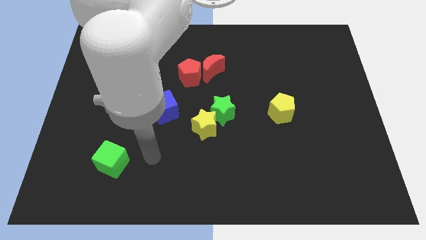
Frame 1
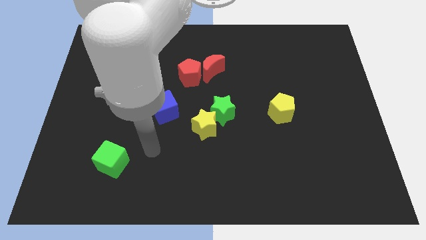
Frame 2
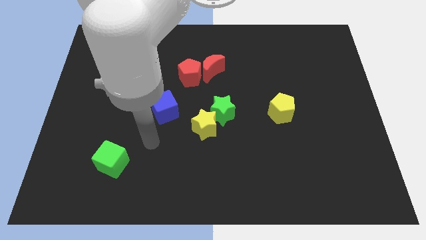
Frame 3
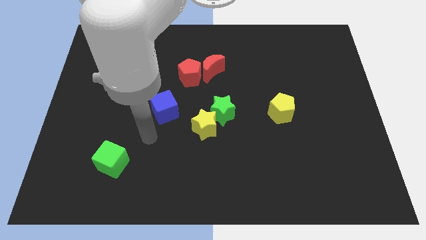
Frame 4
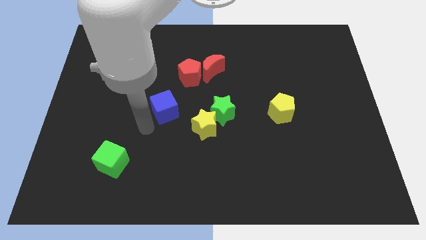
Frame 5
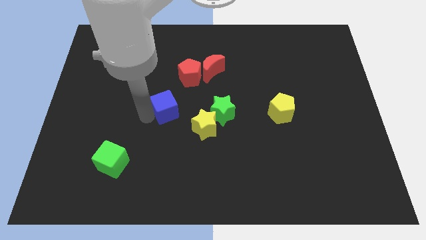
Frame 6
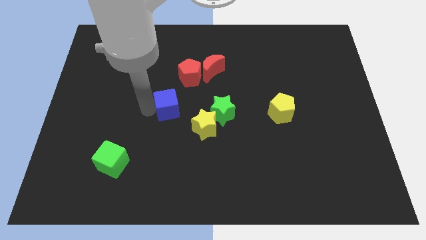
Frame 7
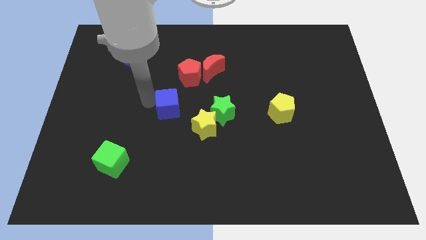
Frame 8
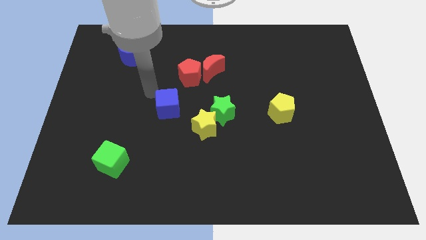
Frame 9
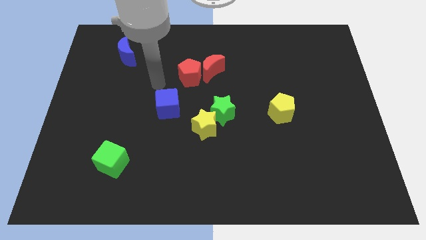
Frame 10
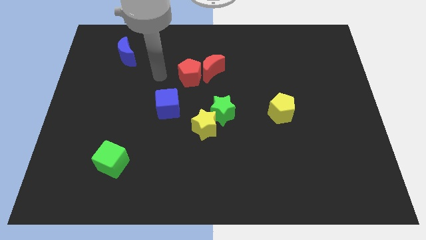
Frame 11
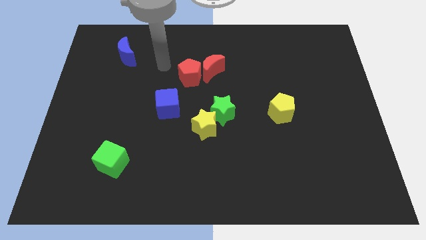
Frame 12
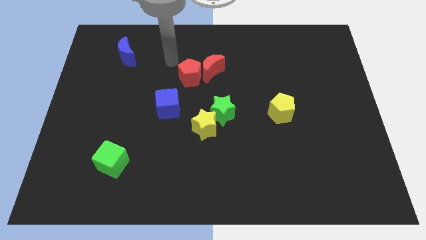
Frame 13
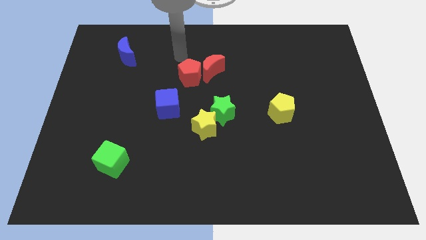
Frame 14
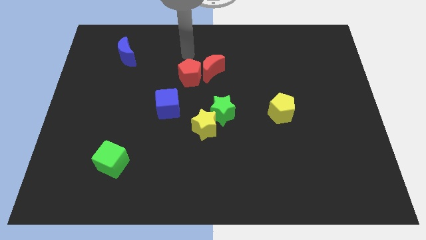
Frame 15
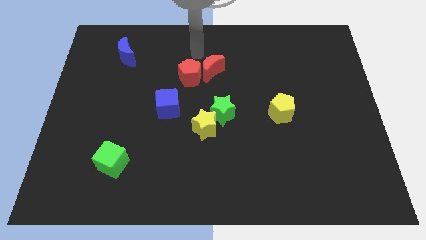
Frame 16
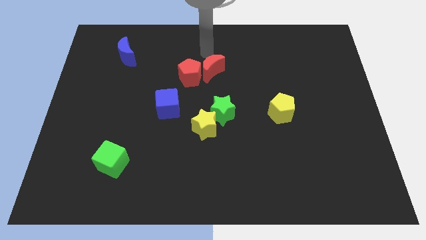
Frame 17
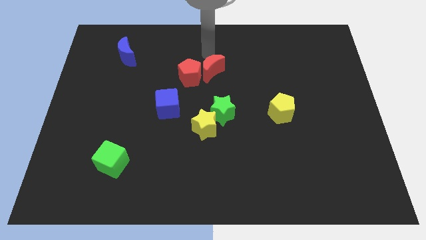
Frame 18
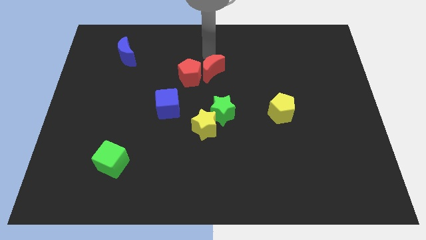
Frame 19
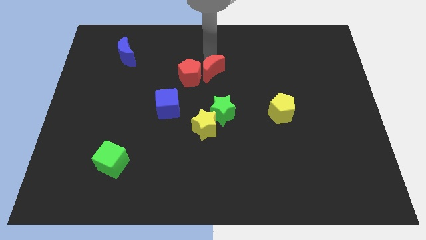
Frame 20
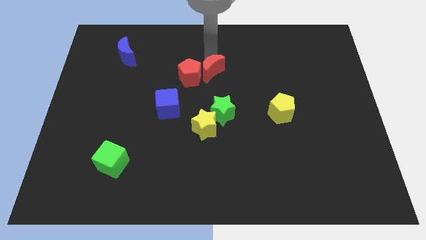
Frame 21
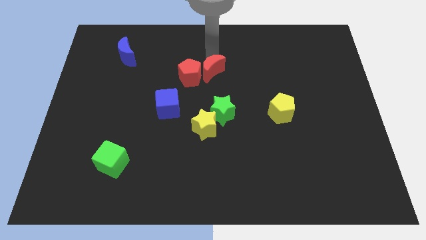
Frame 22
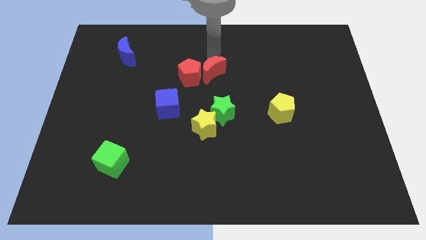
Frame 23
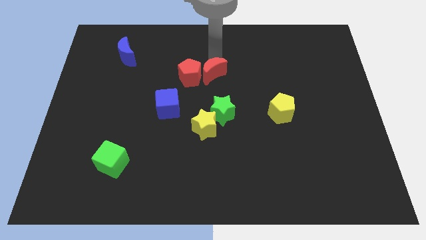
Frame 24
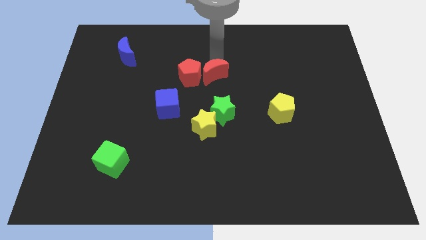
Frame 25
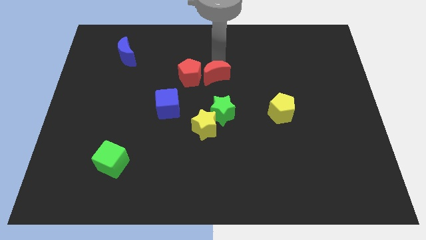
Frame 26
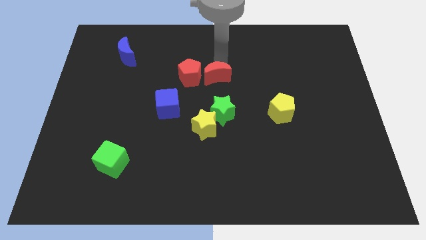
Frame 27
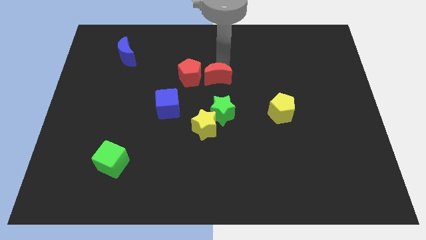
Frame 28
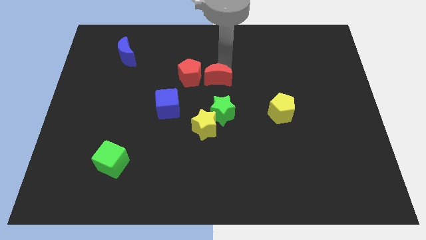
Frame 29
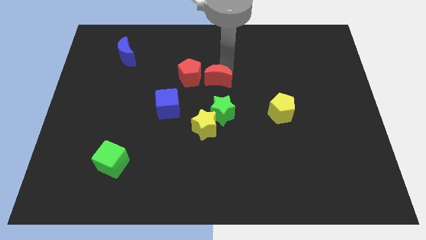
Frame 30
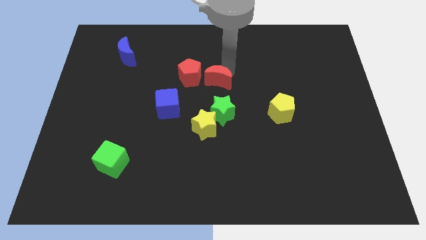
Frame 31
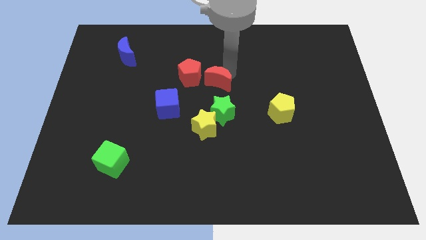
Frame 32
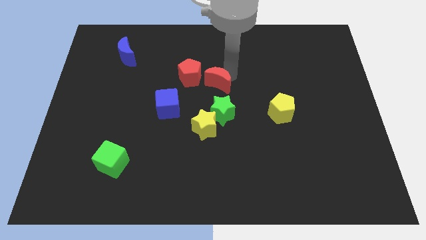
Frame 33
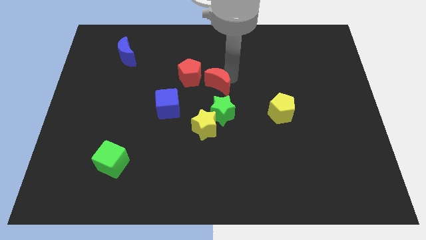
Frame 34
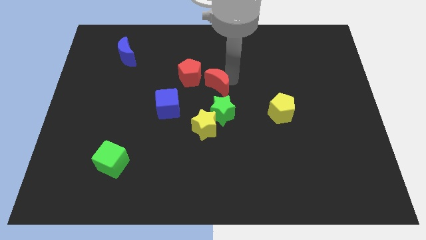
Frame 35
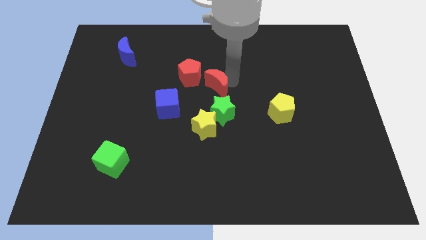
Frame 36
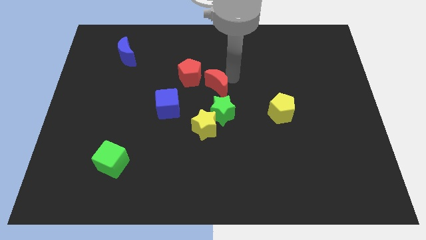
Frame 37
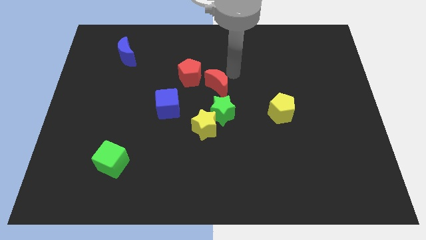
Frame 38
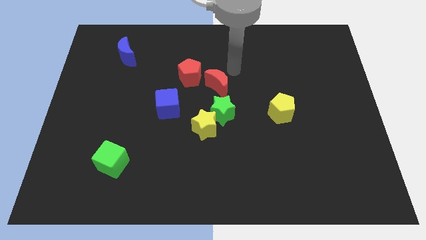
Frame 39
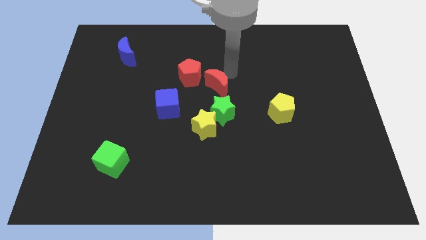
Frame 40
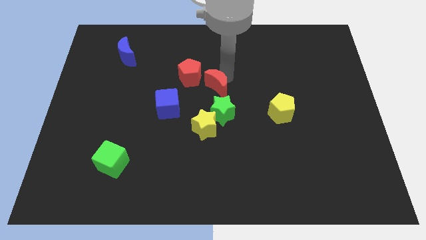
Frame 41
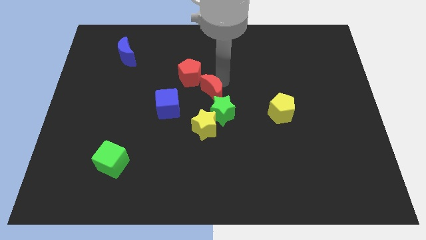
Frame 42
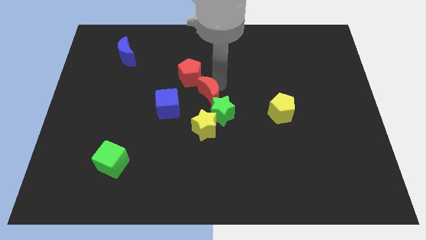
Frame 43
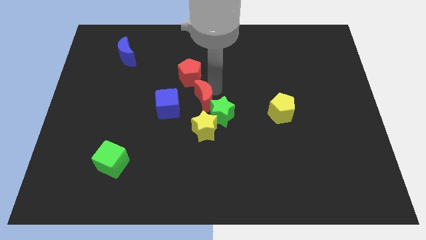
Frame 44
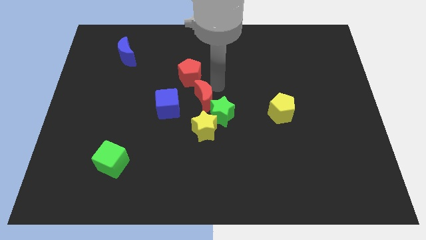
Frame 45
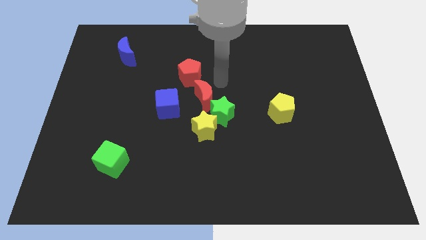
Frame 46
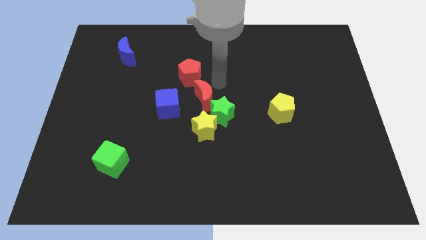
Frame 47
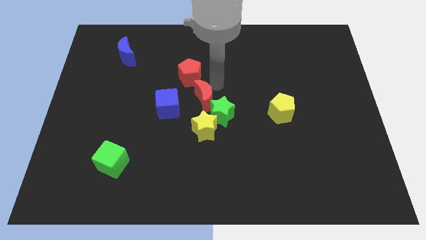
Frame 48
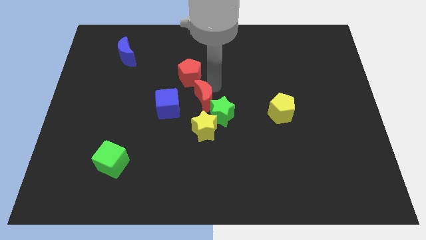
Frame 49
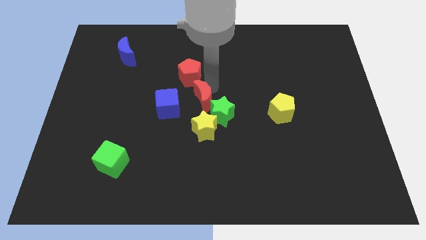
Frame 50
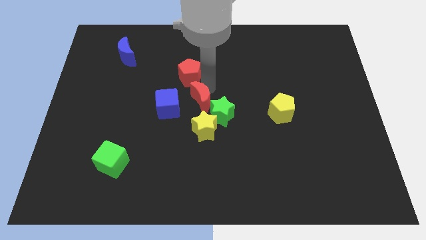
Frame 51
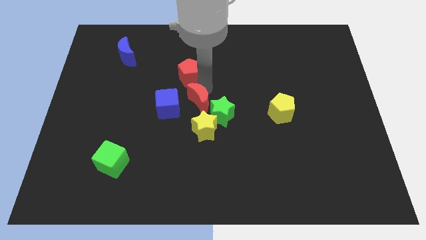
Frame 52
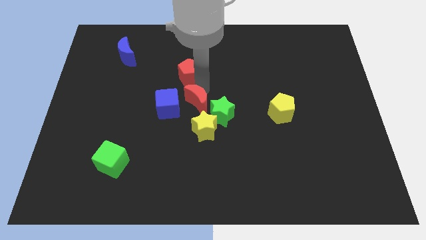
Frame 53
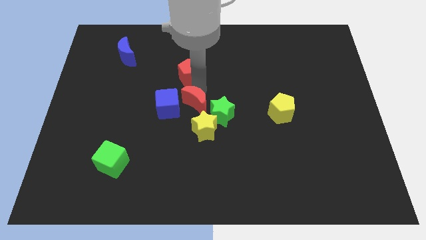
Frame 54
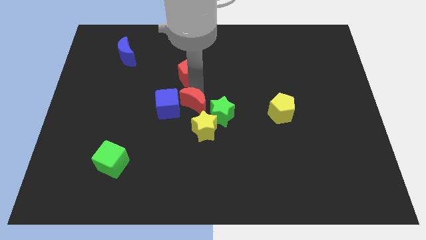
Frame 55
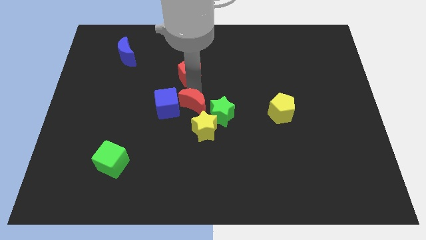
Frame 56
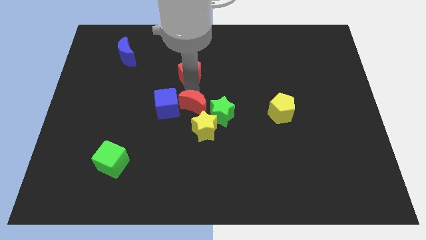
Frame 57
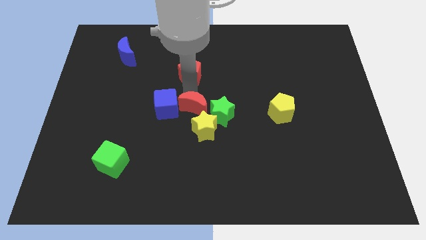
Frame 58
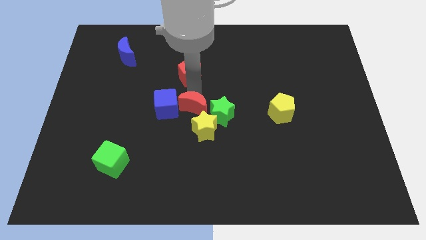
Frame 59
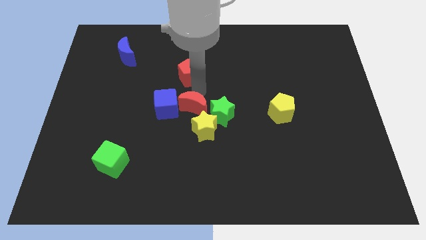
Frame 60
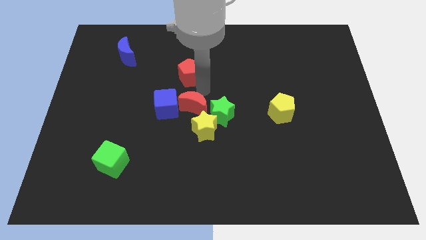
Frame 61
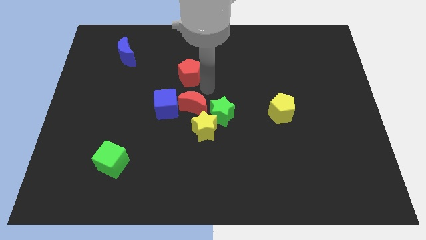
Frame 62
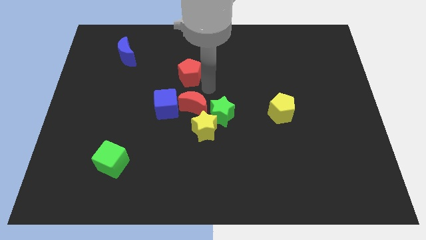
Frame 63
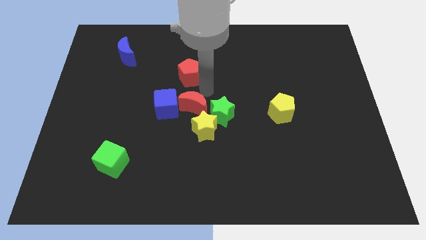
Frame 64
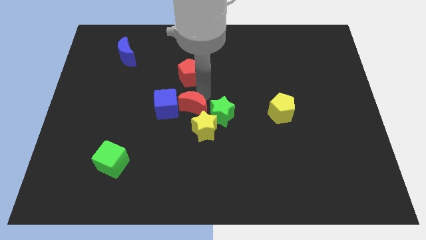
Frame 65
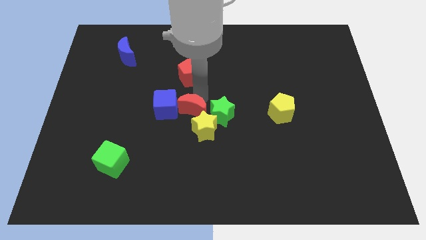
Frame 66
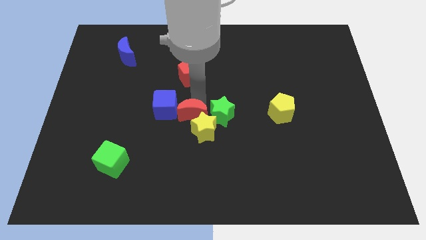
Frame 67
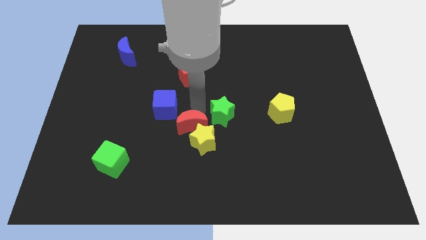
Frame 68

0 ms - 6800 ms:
put the red moon to the left side of the yellow star
